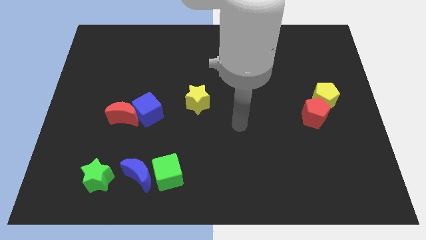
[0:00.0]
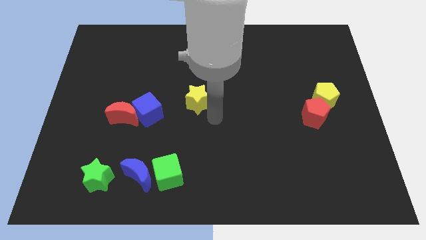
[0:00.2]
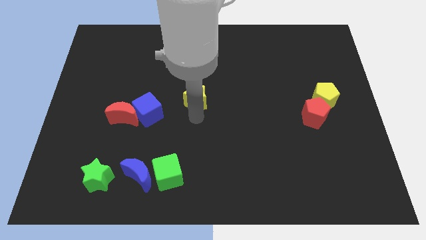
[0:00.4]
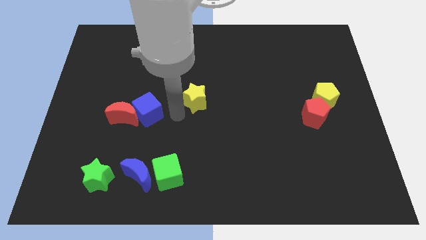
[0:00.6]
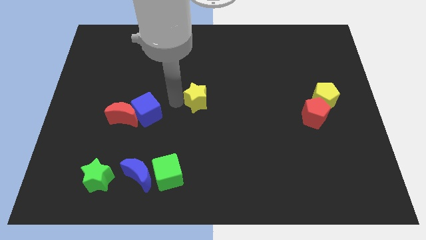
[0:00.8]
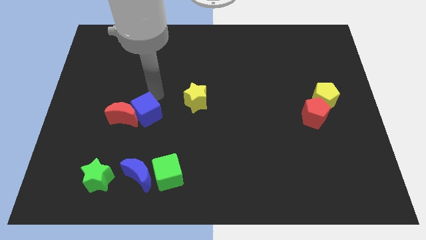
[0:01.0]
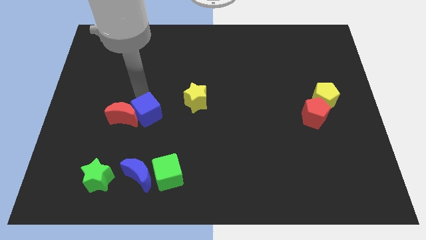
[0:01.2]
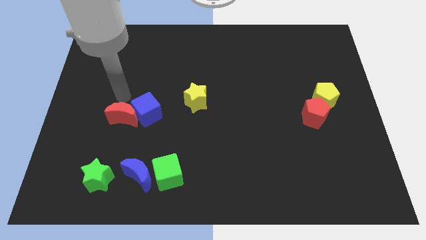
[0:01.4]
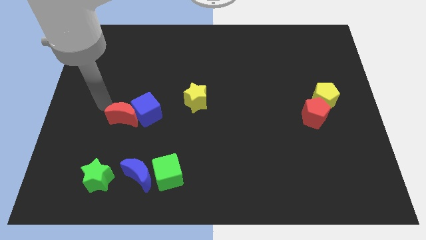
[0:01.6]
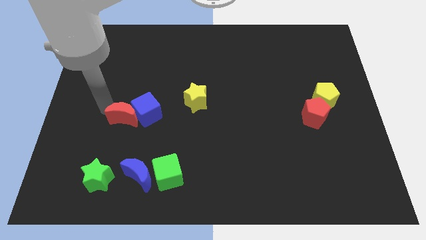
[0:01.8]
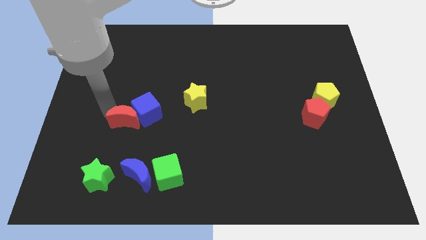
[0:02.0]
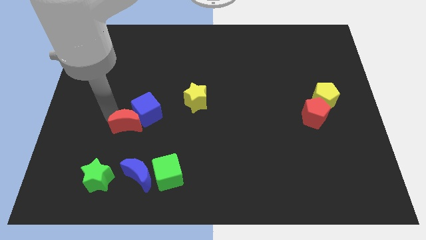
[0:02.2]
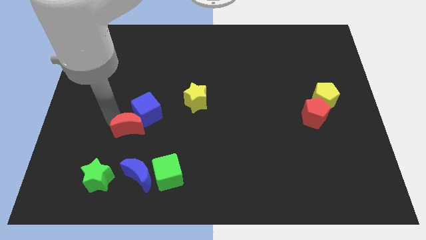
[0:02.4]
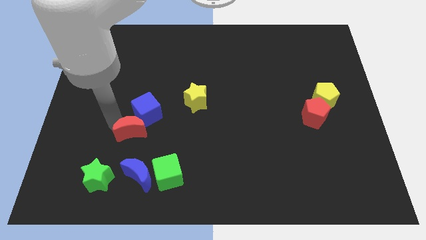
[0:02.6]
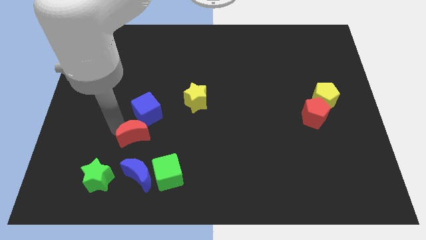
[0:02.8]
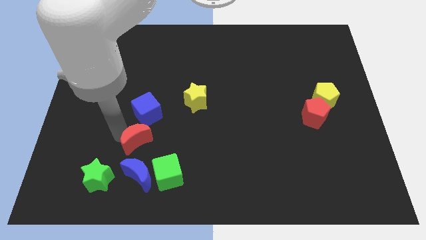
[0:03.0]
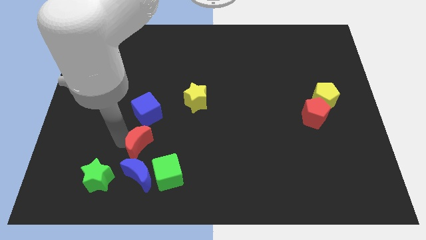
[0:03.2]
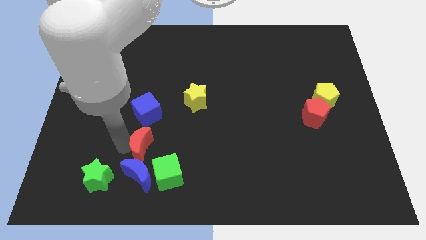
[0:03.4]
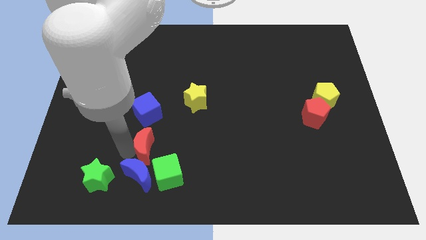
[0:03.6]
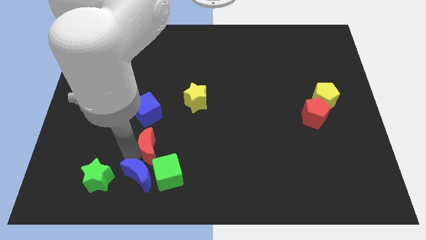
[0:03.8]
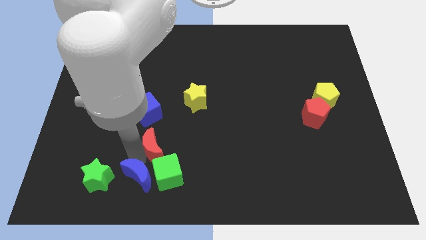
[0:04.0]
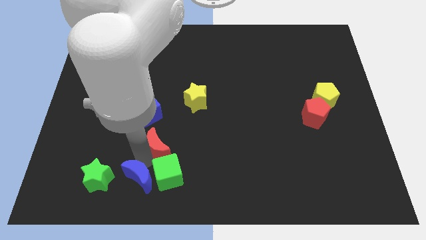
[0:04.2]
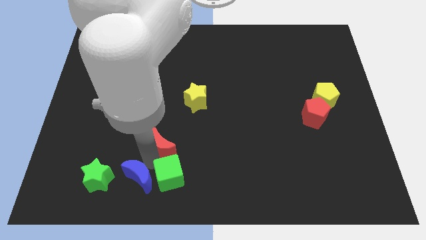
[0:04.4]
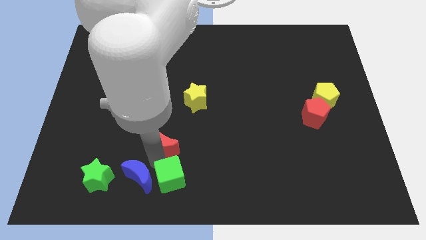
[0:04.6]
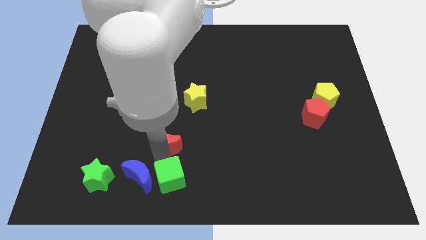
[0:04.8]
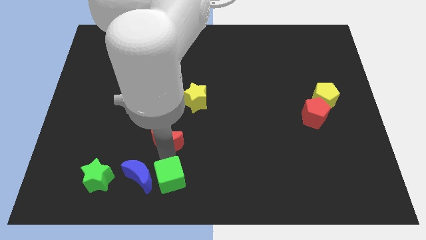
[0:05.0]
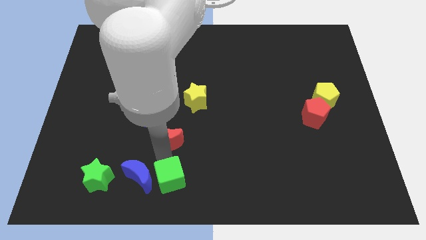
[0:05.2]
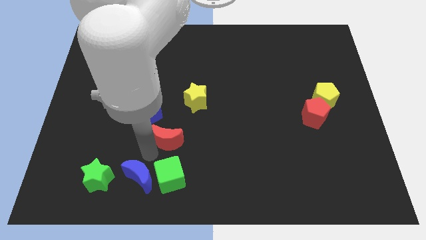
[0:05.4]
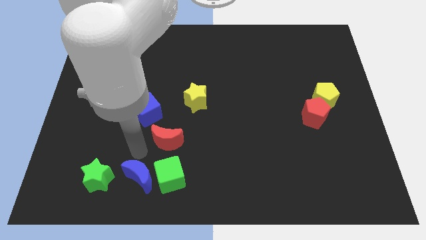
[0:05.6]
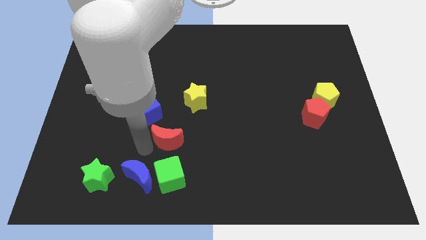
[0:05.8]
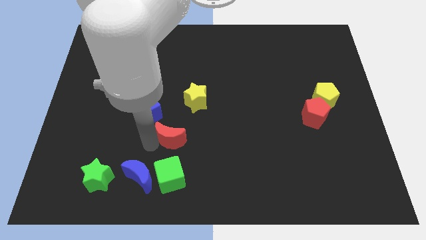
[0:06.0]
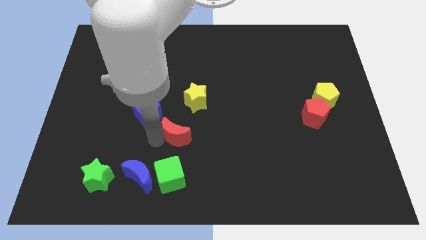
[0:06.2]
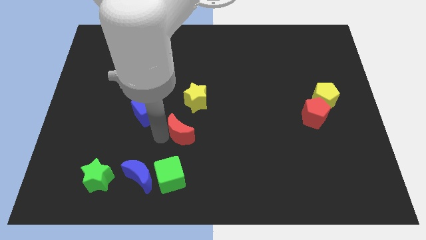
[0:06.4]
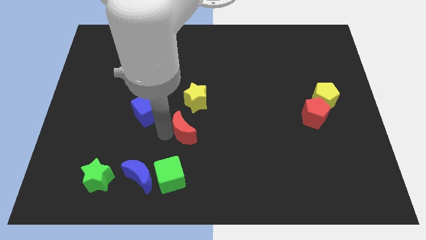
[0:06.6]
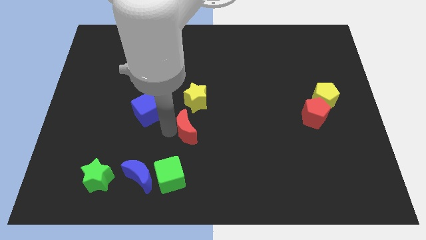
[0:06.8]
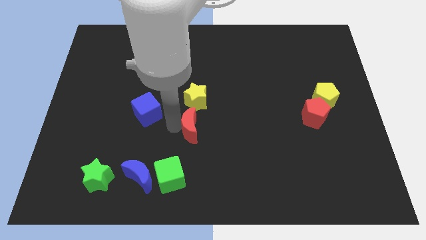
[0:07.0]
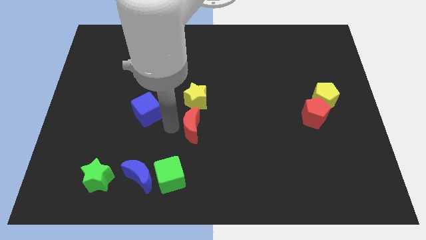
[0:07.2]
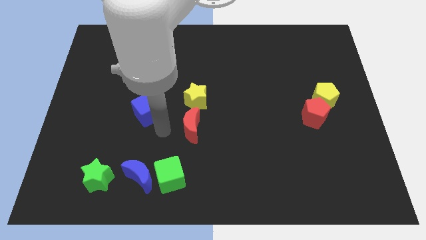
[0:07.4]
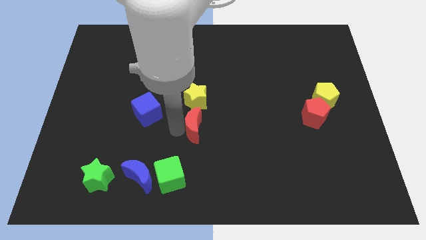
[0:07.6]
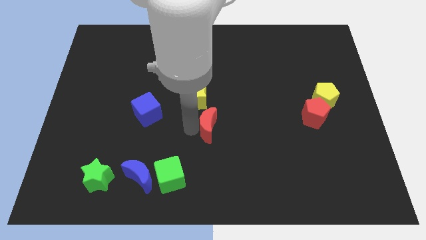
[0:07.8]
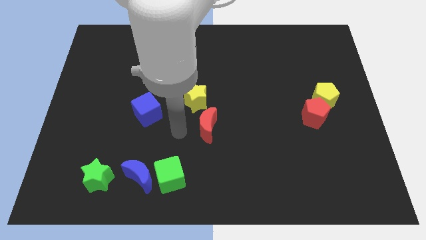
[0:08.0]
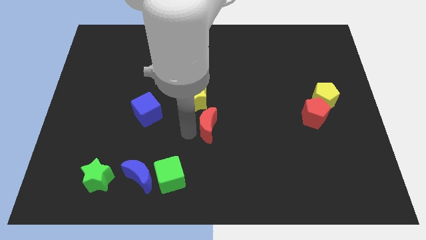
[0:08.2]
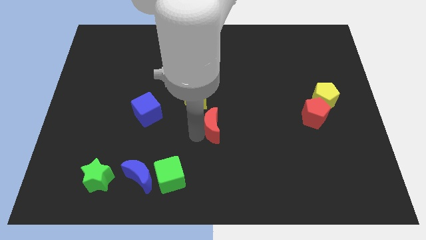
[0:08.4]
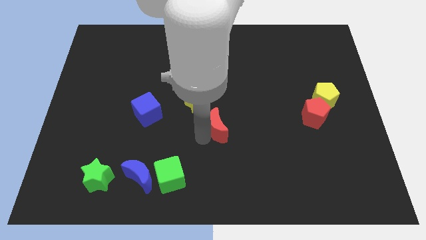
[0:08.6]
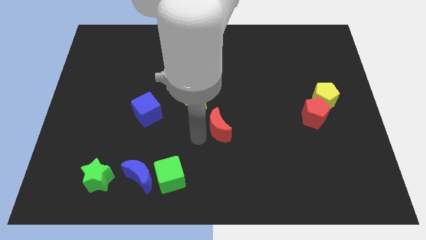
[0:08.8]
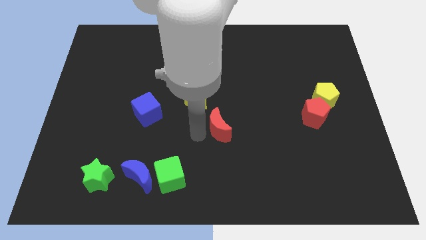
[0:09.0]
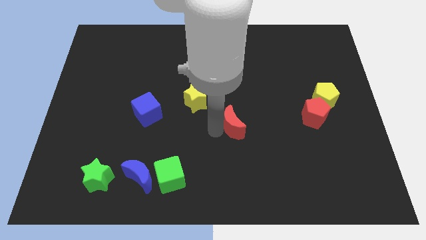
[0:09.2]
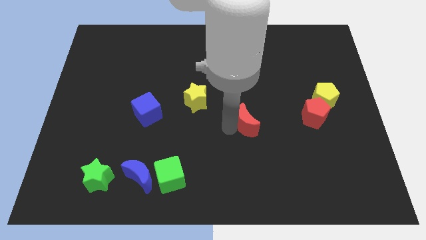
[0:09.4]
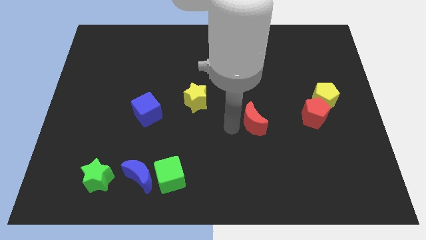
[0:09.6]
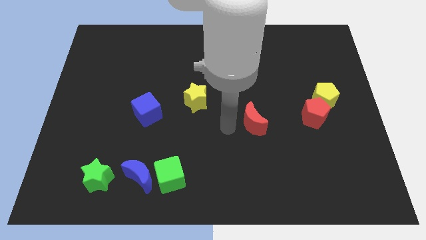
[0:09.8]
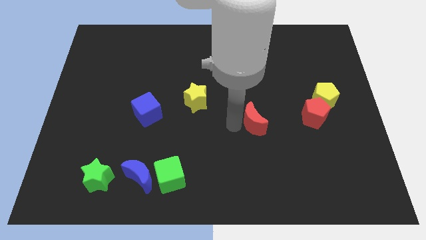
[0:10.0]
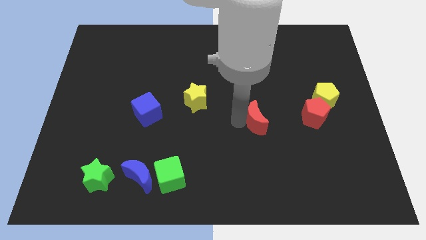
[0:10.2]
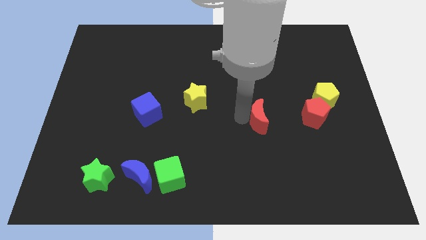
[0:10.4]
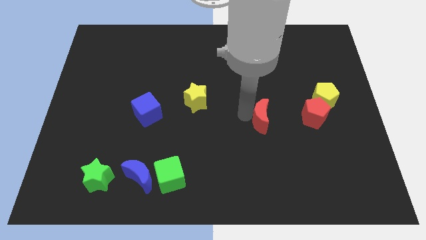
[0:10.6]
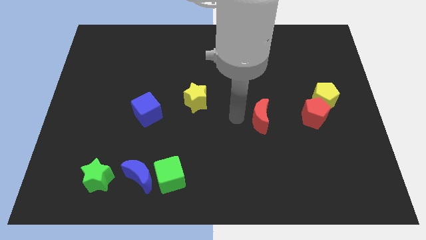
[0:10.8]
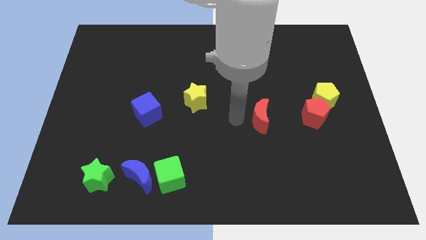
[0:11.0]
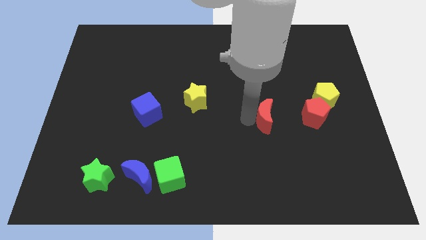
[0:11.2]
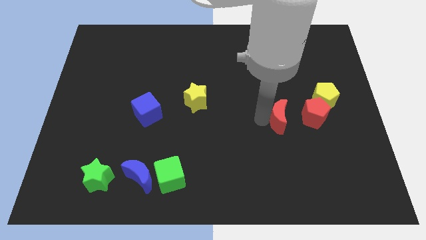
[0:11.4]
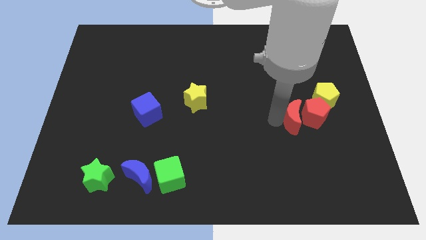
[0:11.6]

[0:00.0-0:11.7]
slide the red moon next to the red pentagon

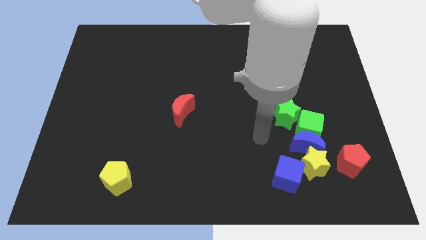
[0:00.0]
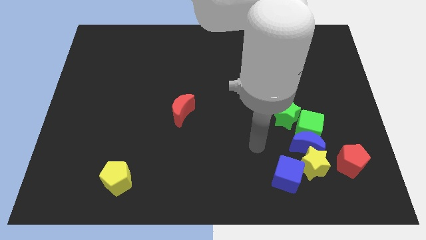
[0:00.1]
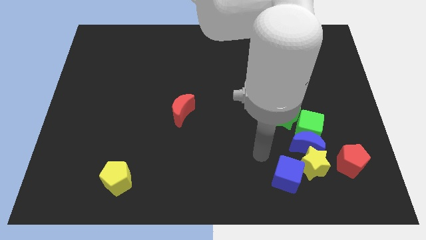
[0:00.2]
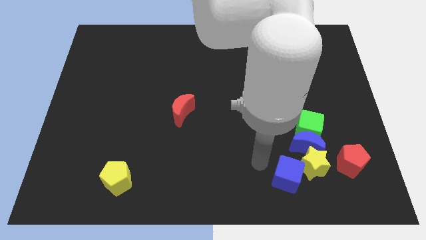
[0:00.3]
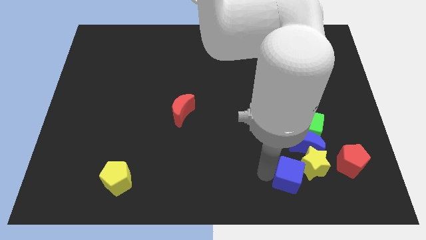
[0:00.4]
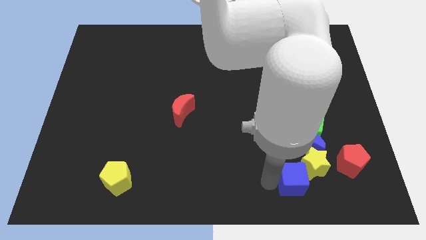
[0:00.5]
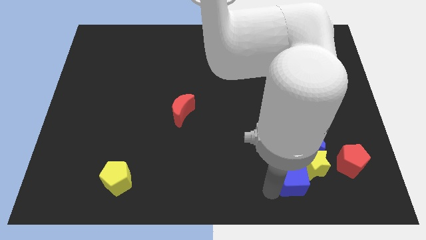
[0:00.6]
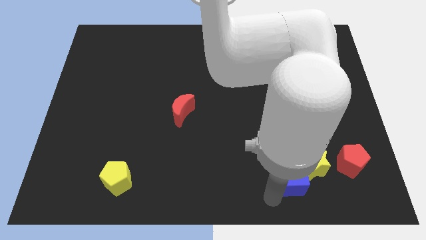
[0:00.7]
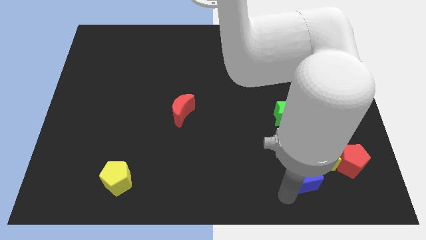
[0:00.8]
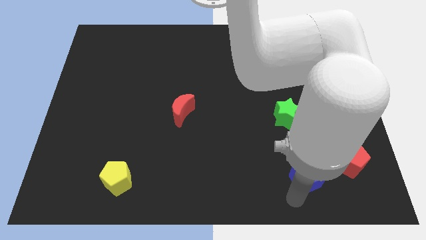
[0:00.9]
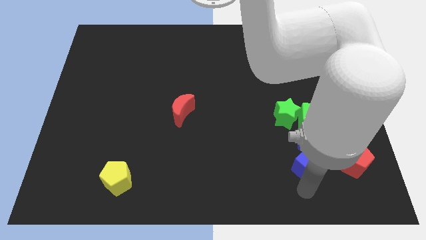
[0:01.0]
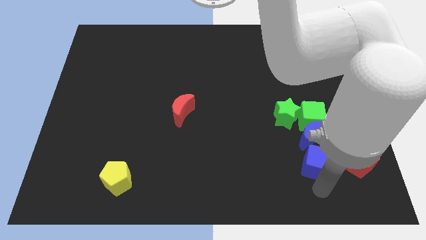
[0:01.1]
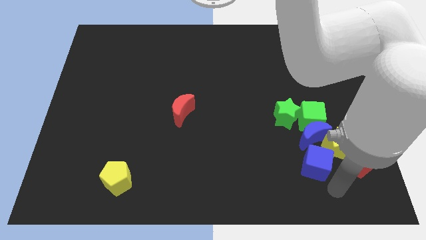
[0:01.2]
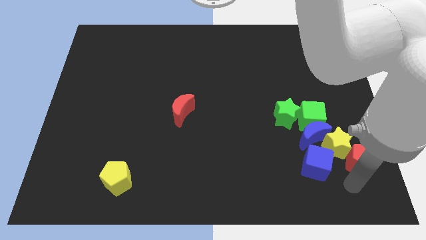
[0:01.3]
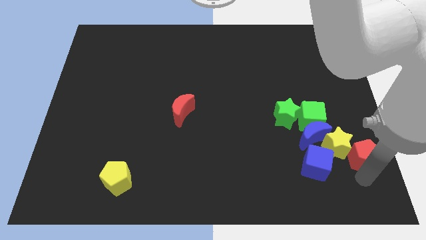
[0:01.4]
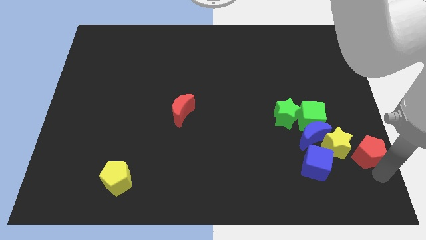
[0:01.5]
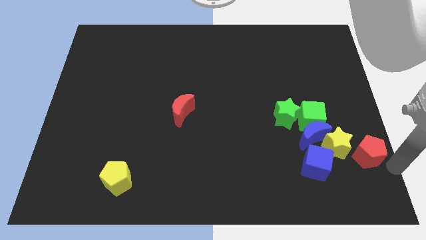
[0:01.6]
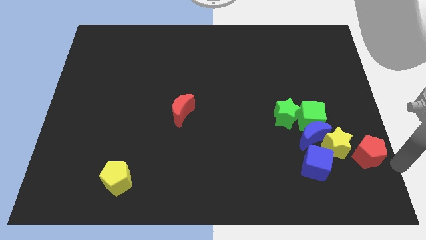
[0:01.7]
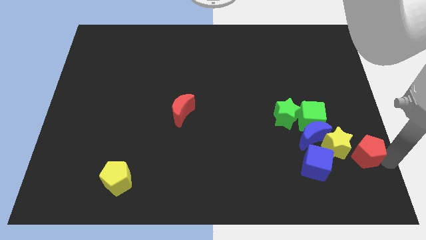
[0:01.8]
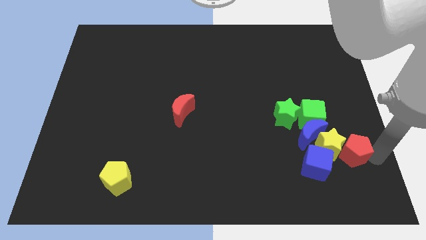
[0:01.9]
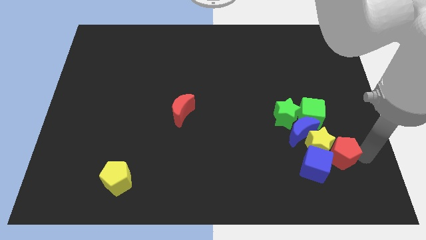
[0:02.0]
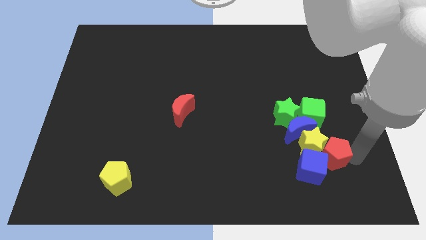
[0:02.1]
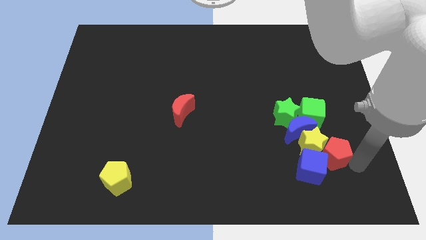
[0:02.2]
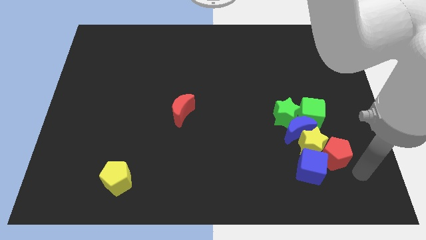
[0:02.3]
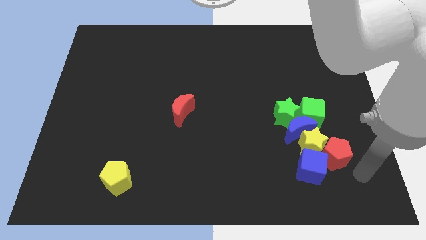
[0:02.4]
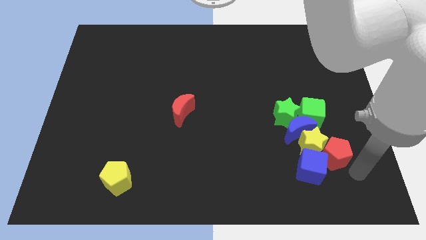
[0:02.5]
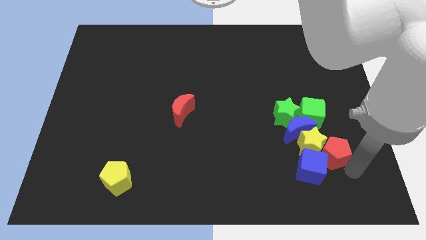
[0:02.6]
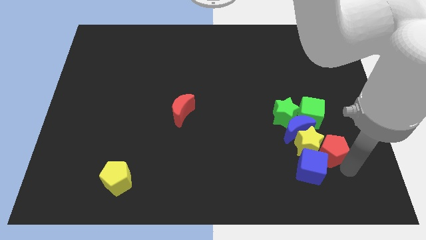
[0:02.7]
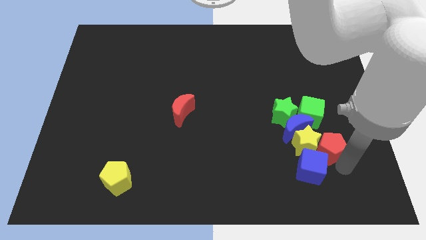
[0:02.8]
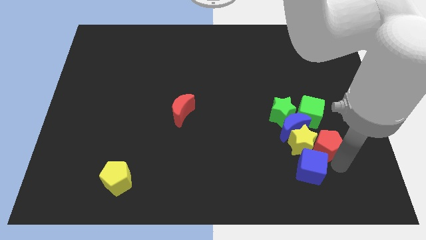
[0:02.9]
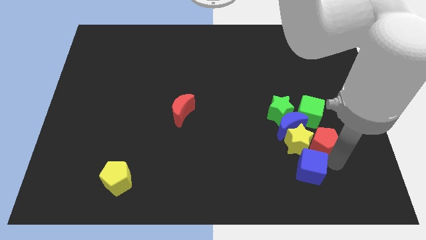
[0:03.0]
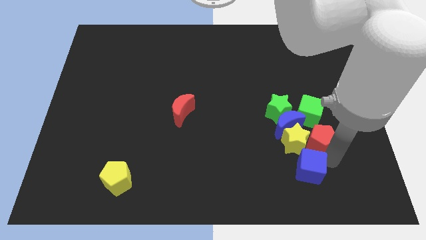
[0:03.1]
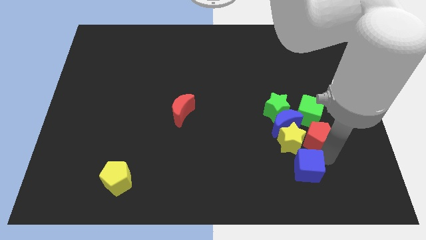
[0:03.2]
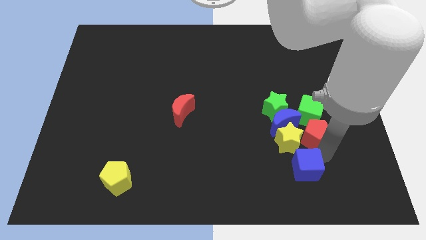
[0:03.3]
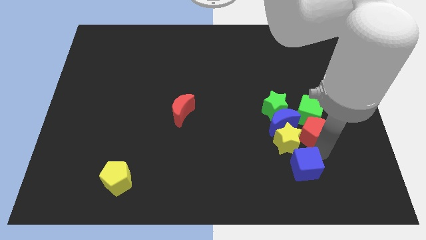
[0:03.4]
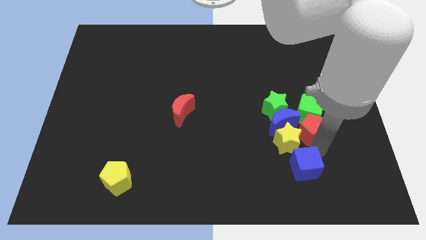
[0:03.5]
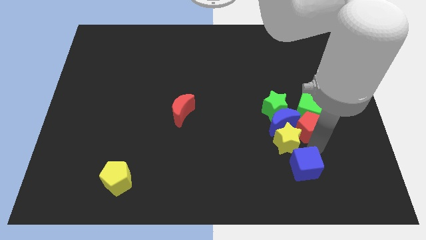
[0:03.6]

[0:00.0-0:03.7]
put the red pentagon next to the blue moon
